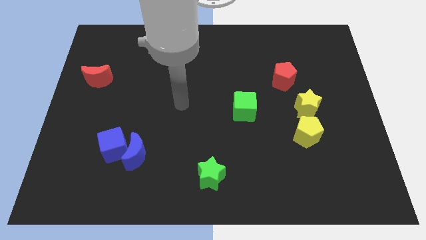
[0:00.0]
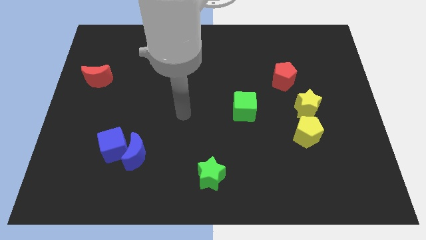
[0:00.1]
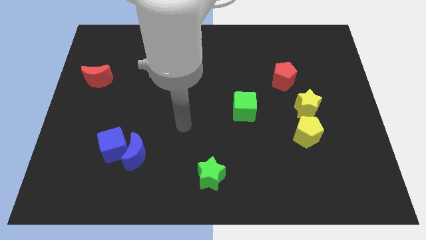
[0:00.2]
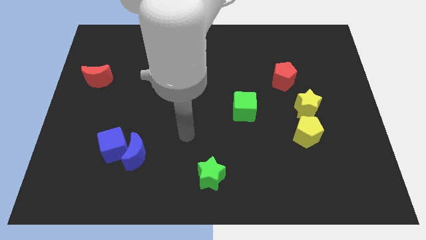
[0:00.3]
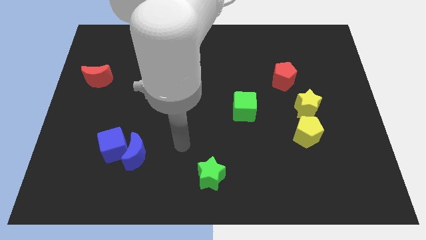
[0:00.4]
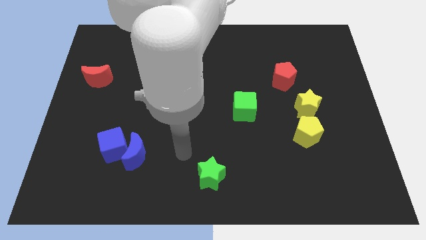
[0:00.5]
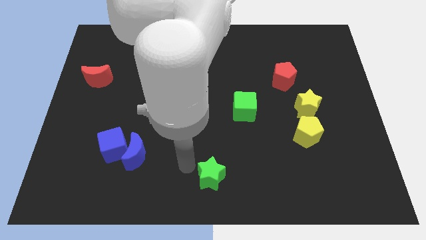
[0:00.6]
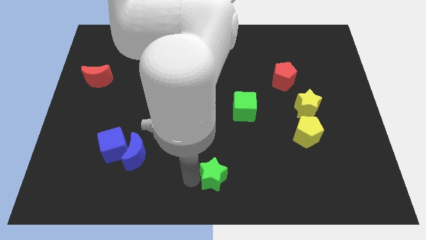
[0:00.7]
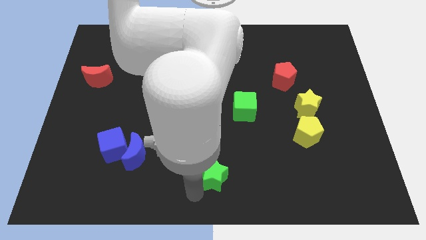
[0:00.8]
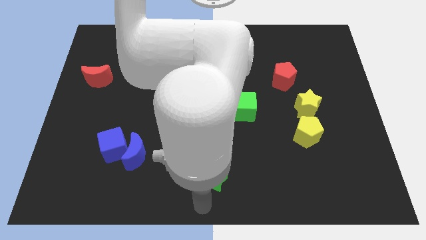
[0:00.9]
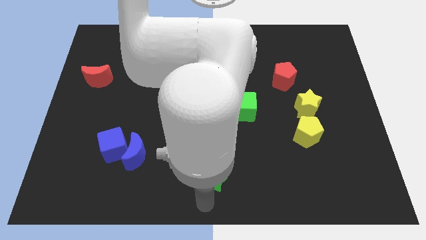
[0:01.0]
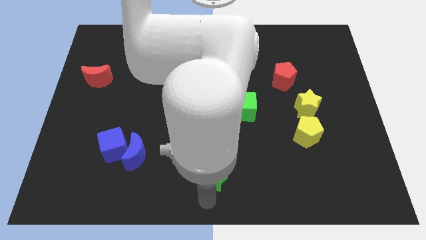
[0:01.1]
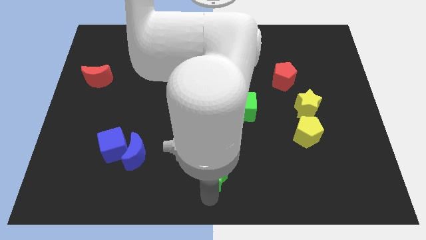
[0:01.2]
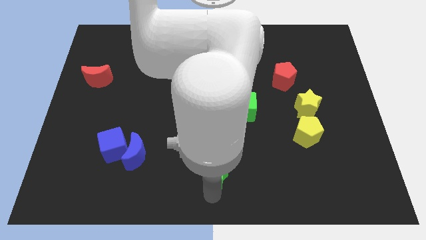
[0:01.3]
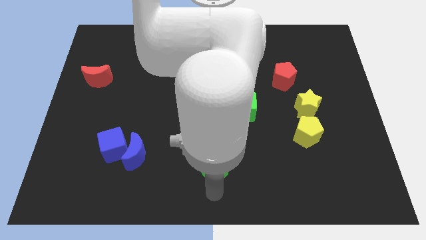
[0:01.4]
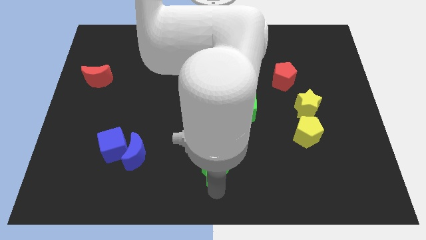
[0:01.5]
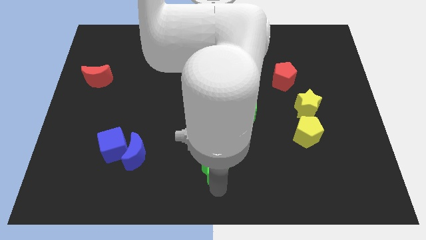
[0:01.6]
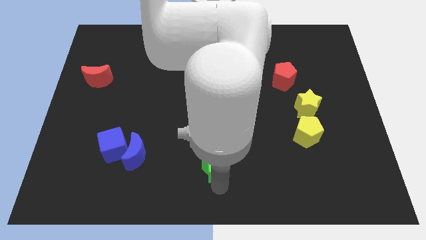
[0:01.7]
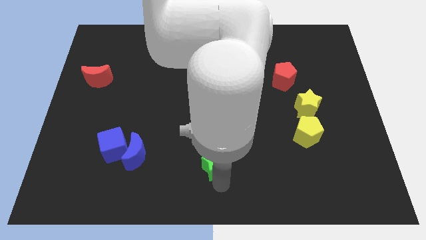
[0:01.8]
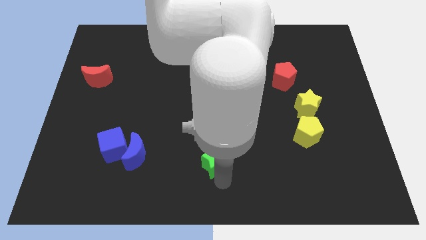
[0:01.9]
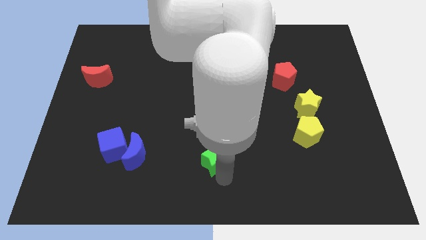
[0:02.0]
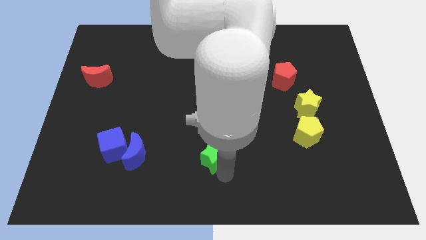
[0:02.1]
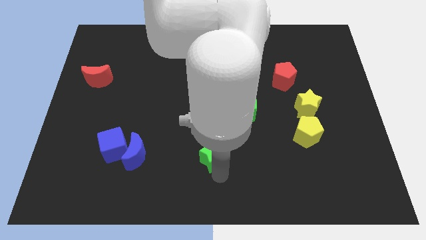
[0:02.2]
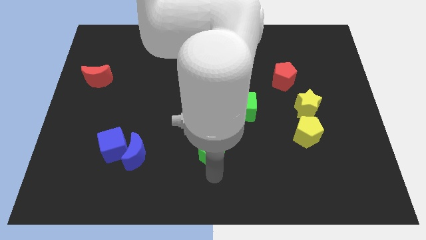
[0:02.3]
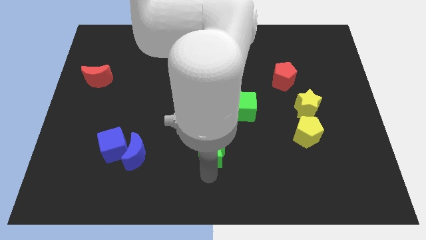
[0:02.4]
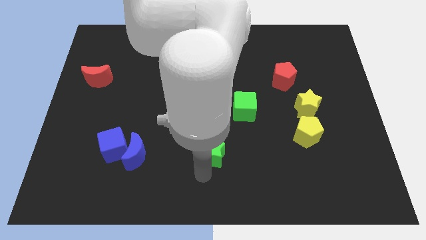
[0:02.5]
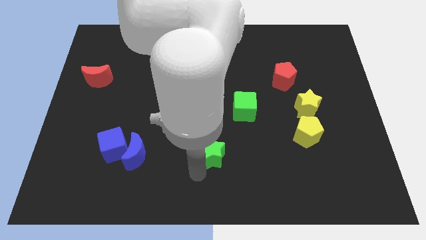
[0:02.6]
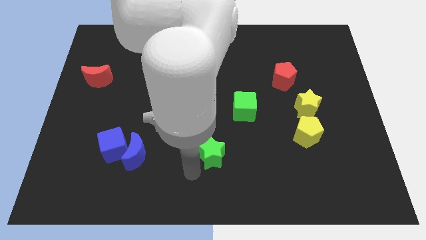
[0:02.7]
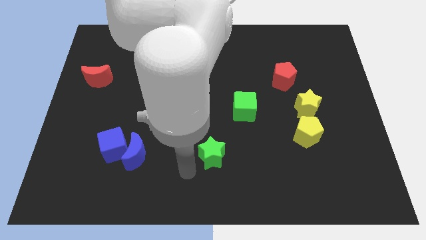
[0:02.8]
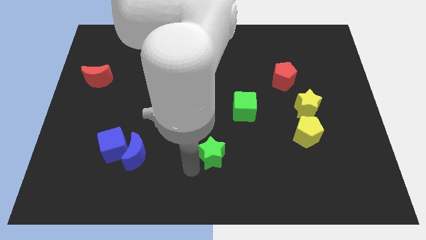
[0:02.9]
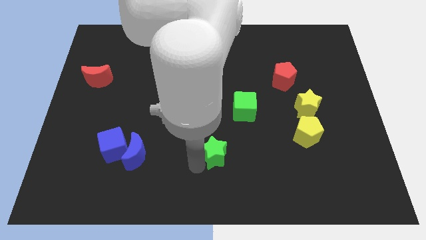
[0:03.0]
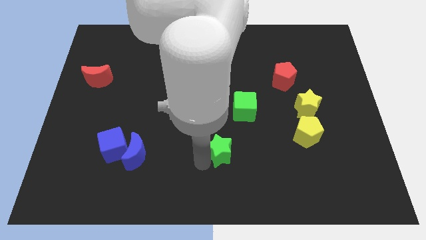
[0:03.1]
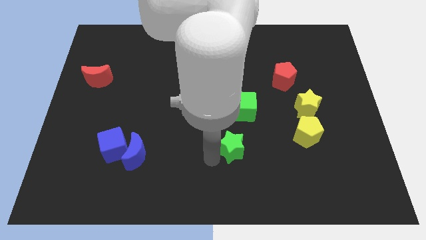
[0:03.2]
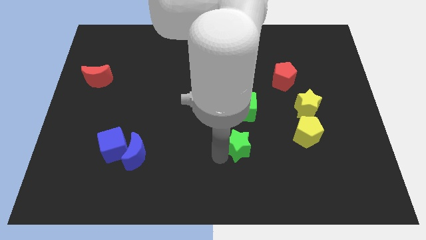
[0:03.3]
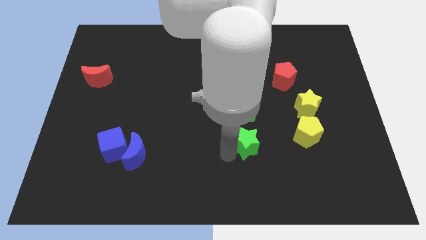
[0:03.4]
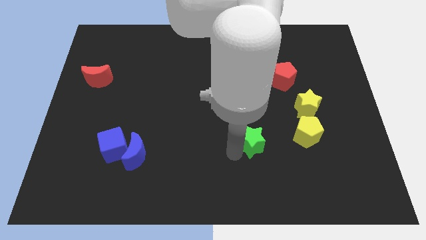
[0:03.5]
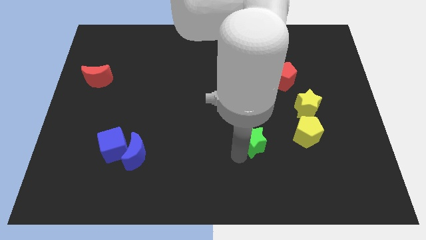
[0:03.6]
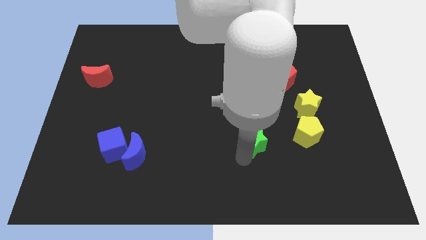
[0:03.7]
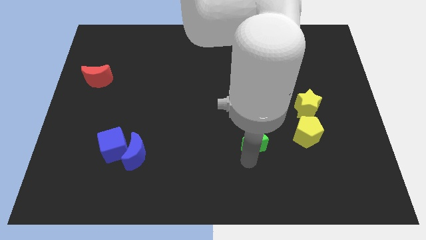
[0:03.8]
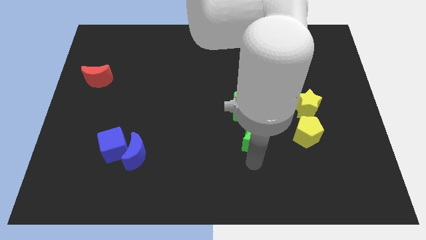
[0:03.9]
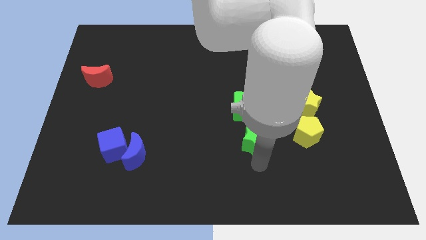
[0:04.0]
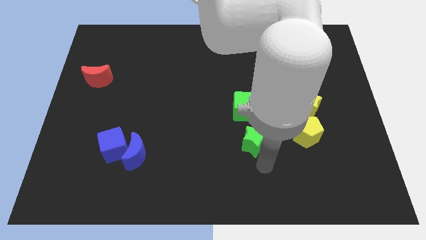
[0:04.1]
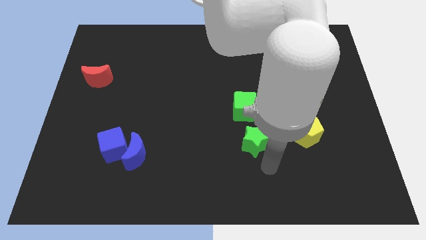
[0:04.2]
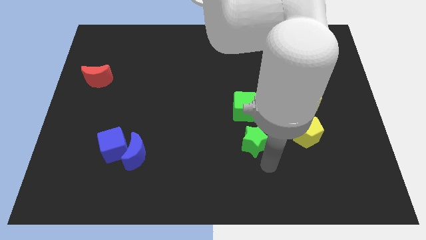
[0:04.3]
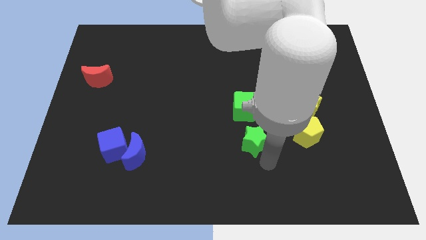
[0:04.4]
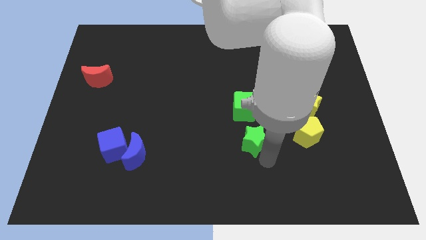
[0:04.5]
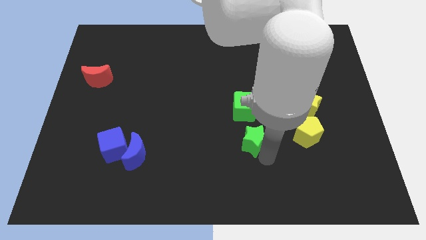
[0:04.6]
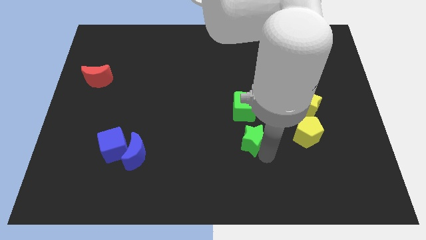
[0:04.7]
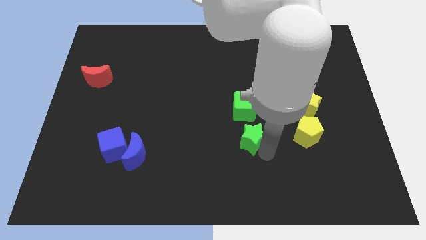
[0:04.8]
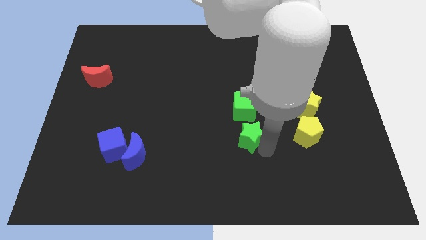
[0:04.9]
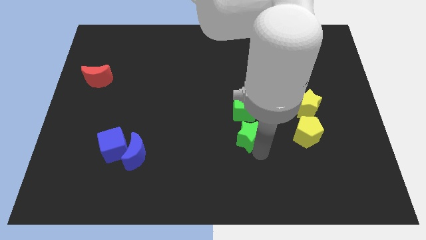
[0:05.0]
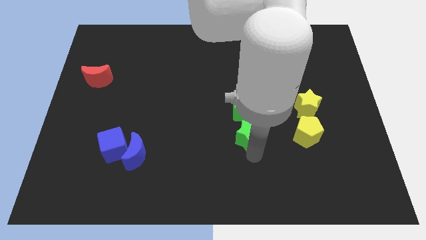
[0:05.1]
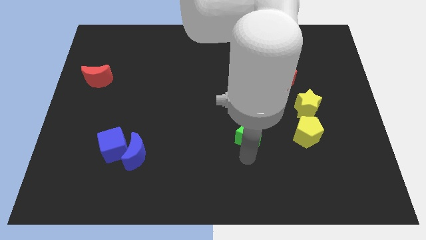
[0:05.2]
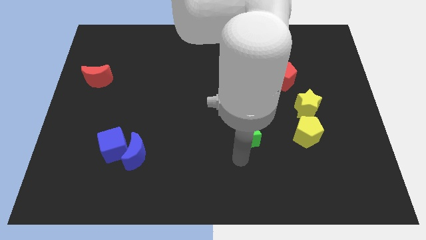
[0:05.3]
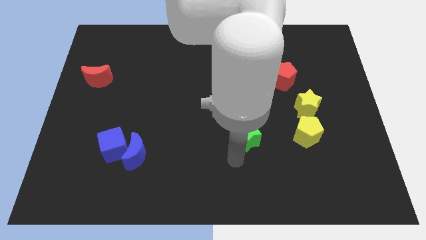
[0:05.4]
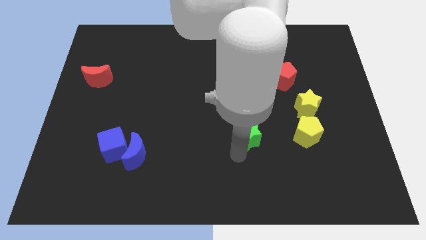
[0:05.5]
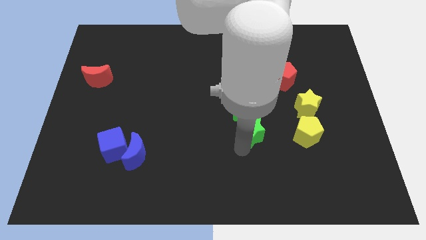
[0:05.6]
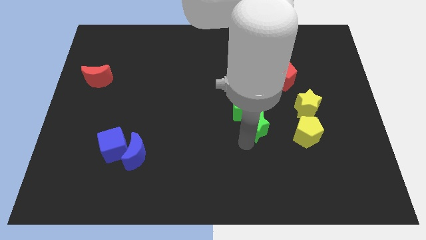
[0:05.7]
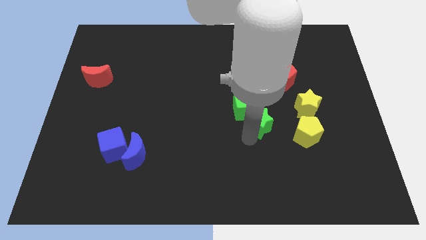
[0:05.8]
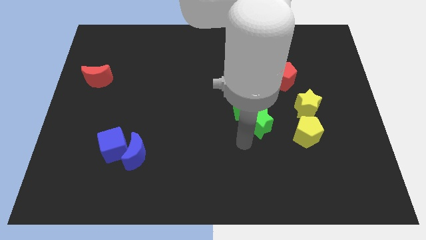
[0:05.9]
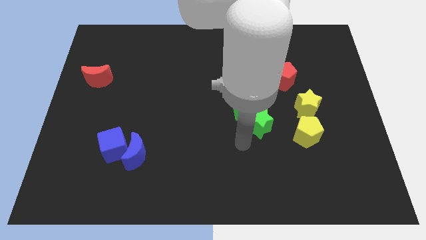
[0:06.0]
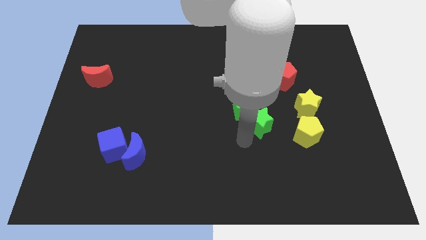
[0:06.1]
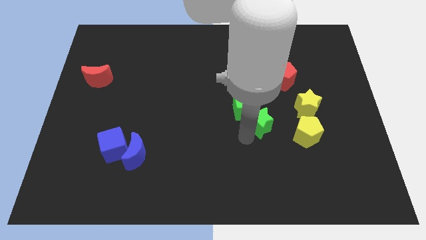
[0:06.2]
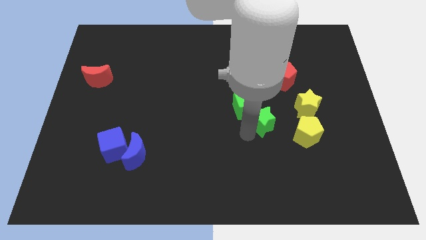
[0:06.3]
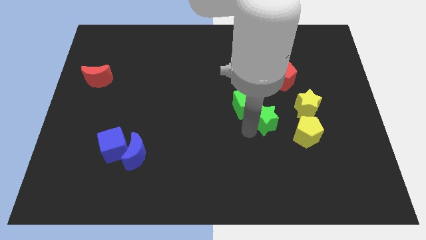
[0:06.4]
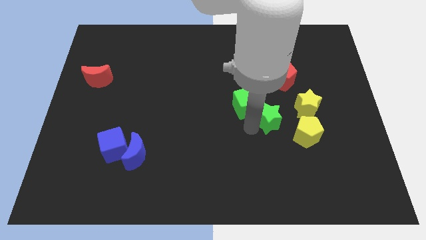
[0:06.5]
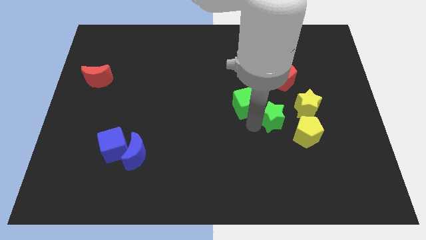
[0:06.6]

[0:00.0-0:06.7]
move the green star up and then to the right

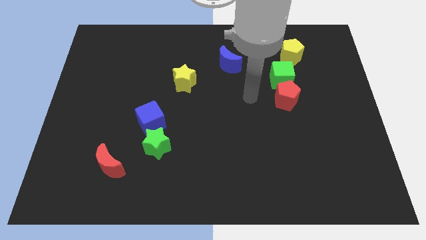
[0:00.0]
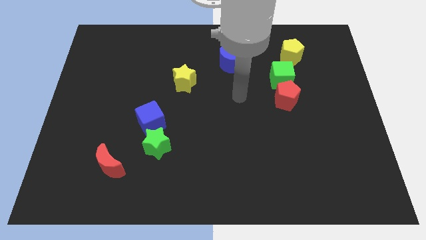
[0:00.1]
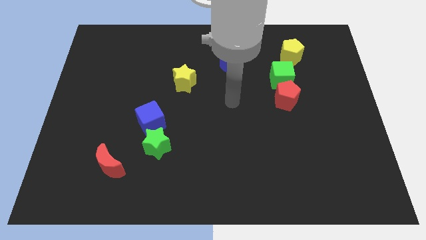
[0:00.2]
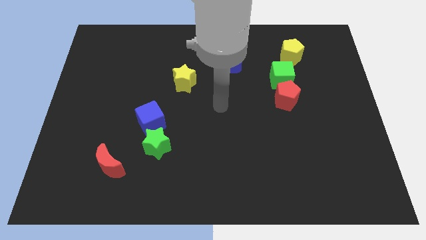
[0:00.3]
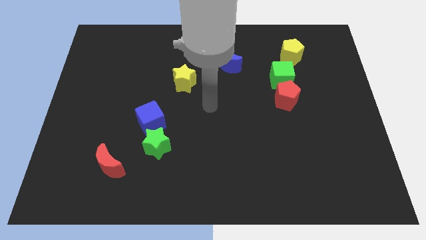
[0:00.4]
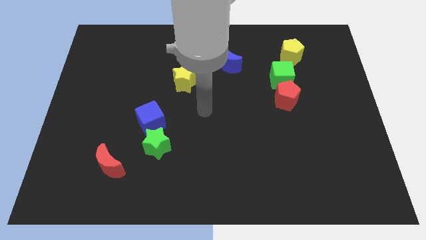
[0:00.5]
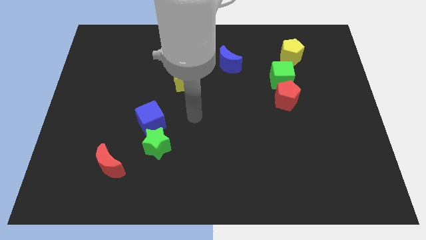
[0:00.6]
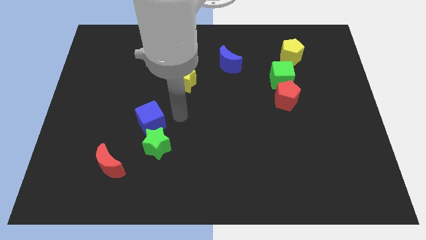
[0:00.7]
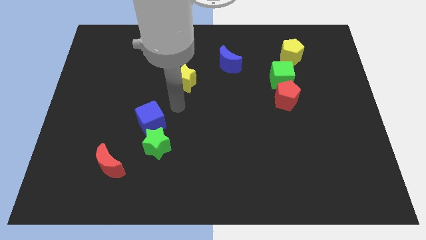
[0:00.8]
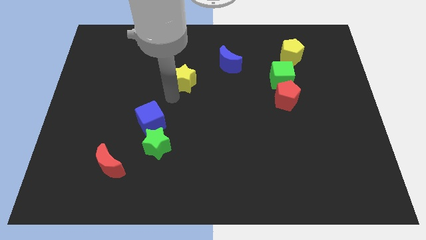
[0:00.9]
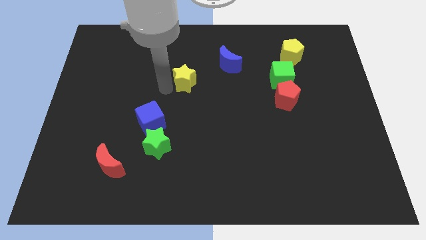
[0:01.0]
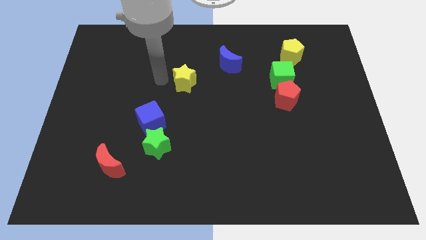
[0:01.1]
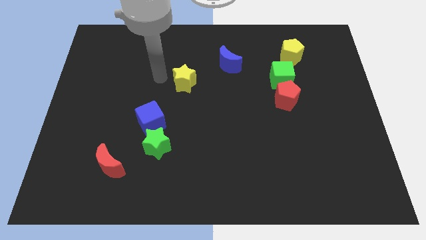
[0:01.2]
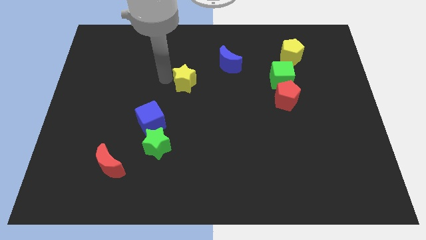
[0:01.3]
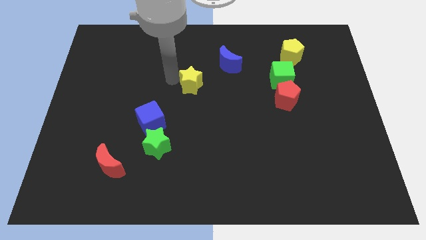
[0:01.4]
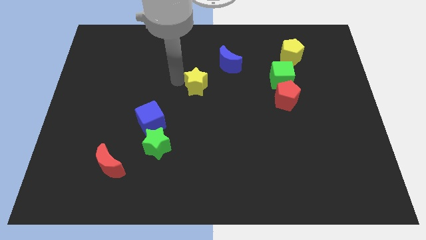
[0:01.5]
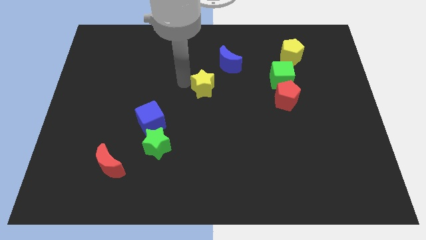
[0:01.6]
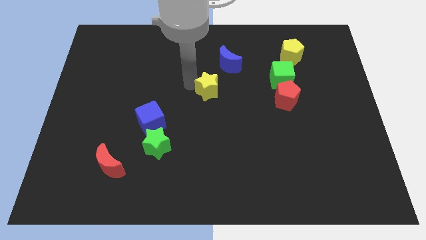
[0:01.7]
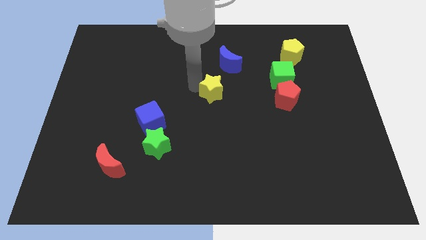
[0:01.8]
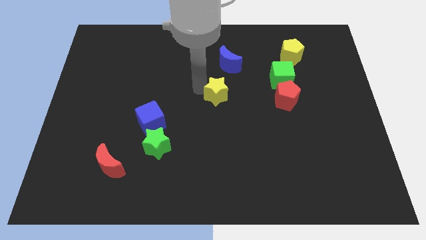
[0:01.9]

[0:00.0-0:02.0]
move the yellow star somewhat right
